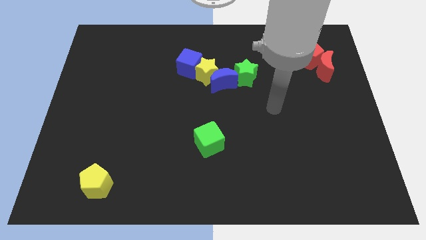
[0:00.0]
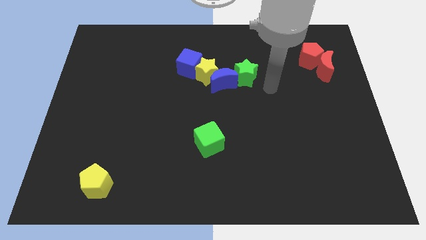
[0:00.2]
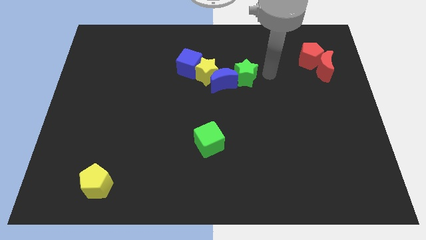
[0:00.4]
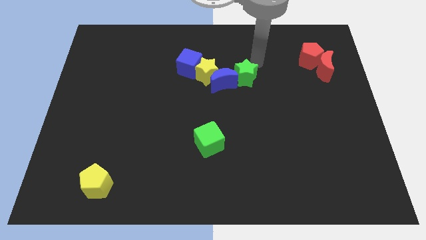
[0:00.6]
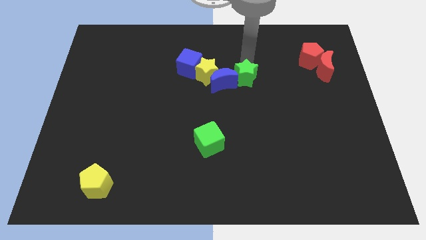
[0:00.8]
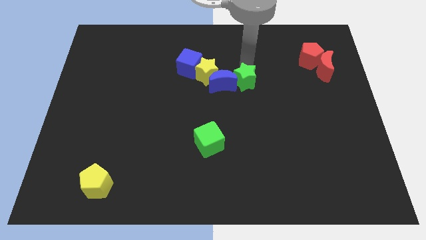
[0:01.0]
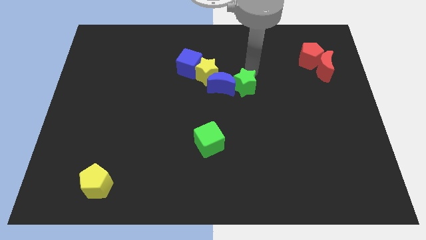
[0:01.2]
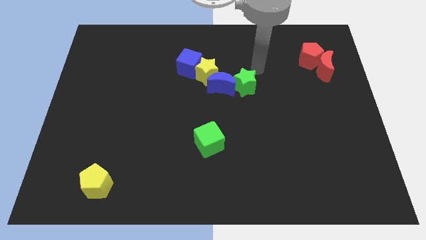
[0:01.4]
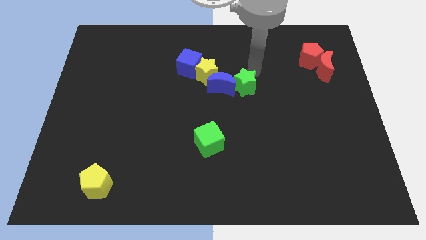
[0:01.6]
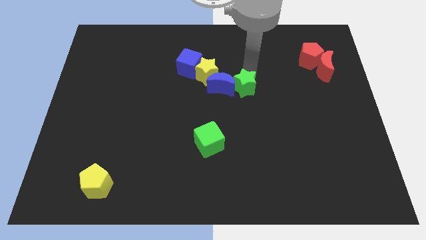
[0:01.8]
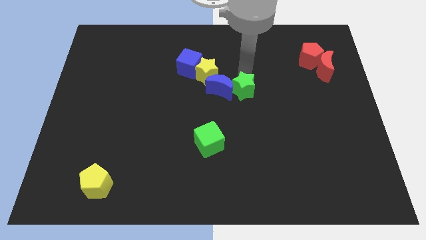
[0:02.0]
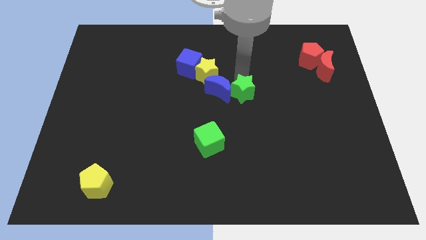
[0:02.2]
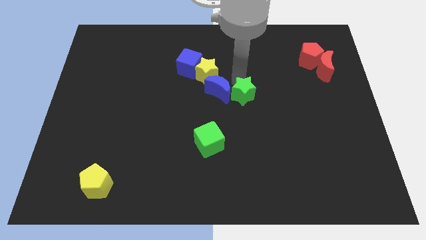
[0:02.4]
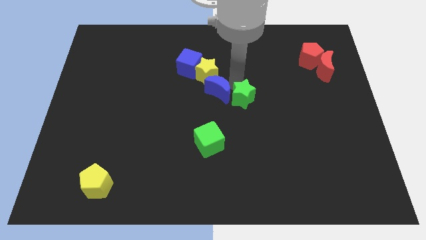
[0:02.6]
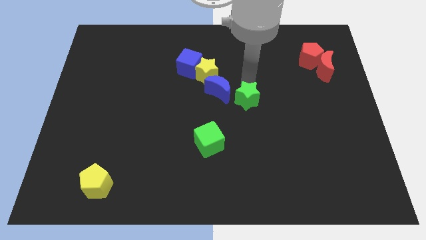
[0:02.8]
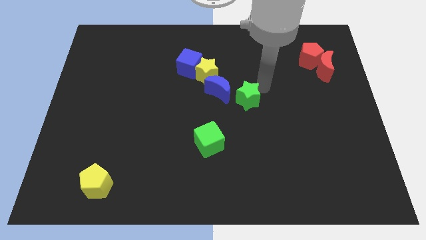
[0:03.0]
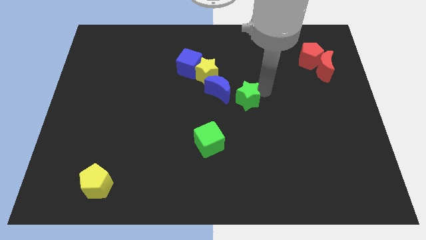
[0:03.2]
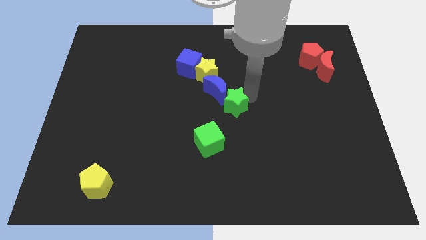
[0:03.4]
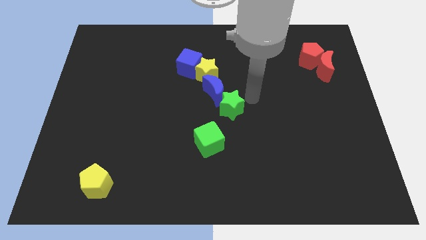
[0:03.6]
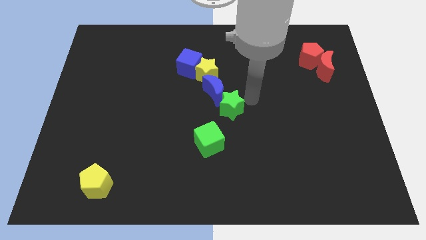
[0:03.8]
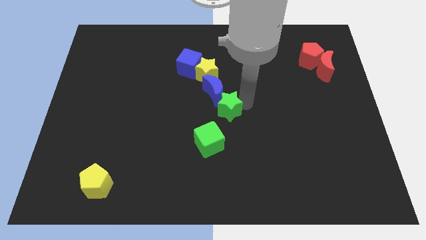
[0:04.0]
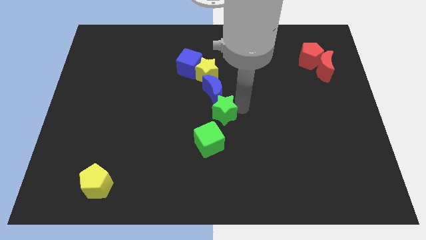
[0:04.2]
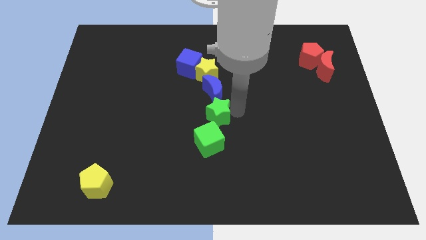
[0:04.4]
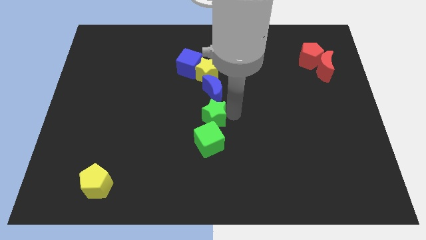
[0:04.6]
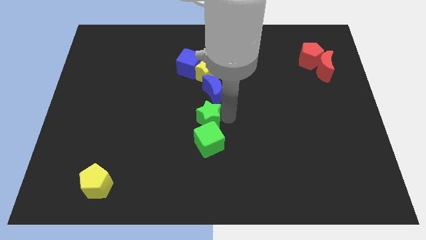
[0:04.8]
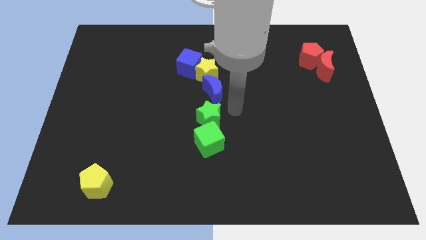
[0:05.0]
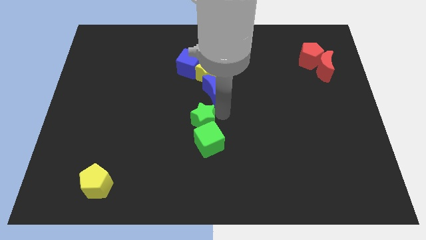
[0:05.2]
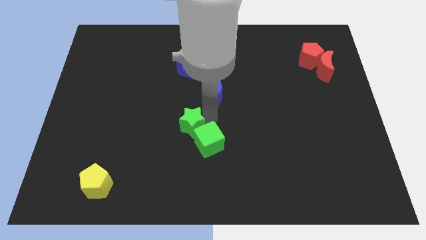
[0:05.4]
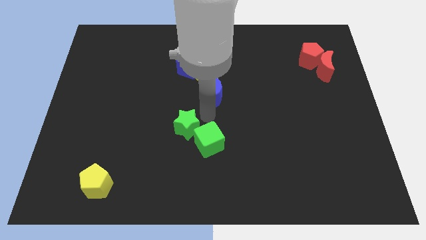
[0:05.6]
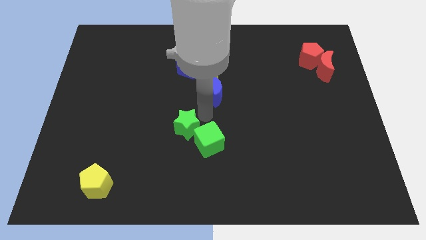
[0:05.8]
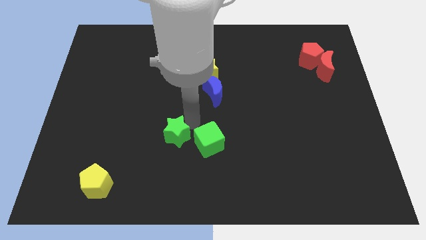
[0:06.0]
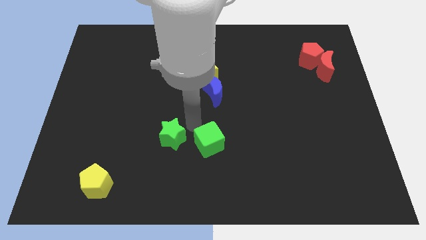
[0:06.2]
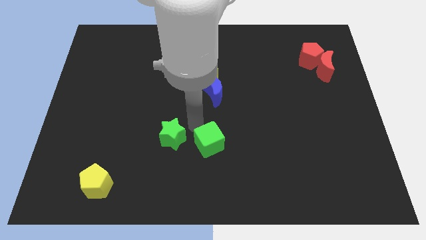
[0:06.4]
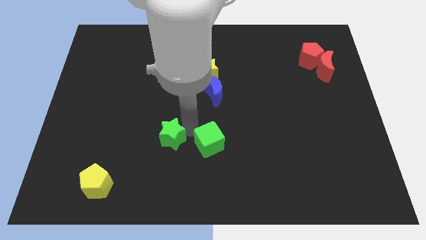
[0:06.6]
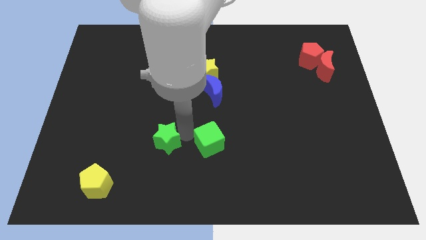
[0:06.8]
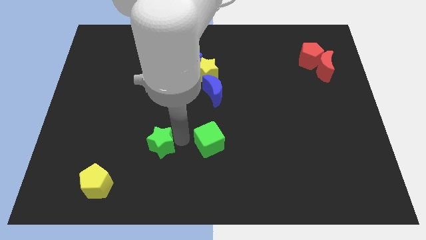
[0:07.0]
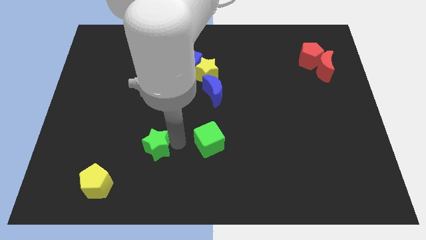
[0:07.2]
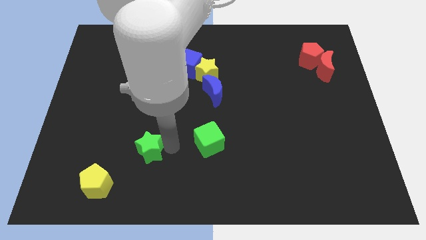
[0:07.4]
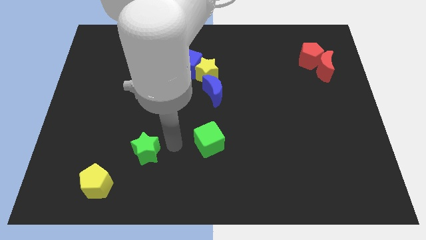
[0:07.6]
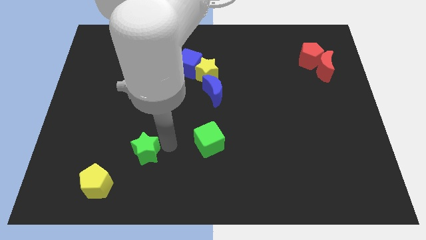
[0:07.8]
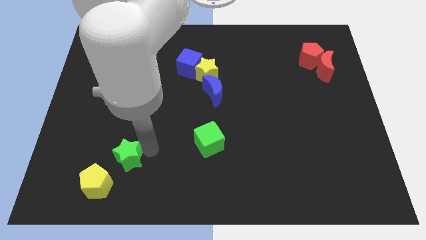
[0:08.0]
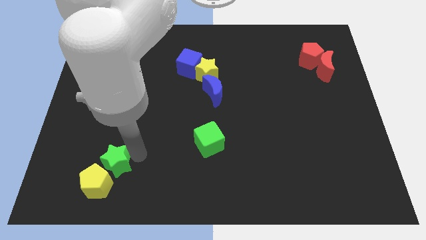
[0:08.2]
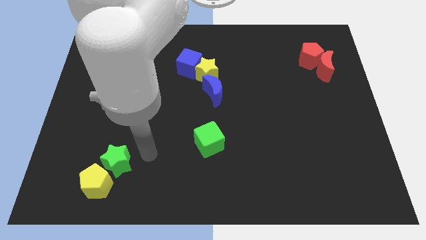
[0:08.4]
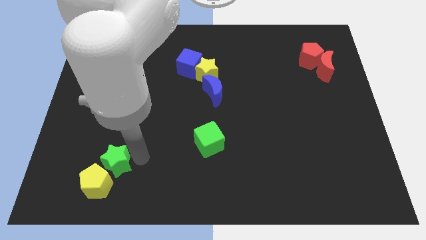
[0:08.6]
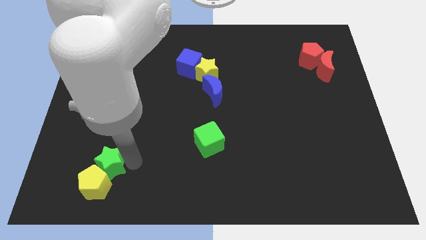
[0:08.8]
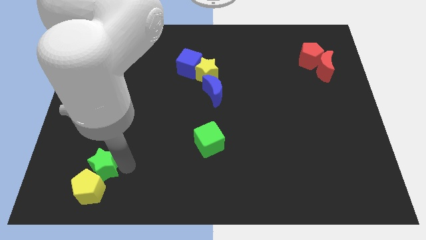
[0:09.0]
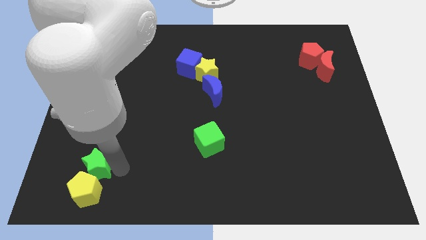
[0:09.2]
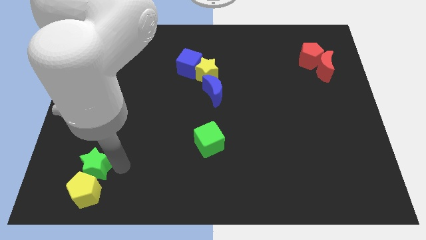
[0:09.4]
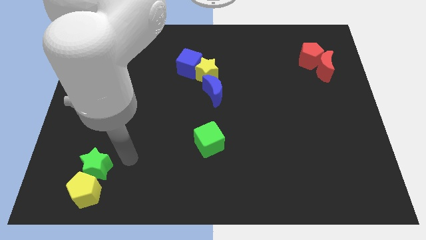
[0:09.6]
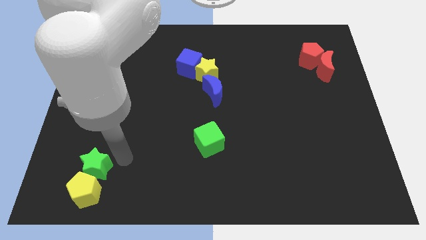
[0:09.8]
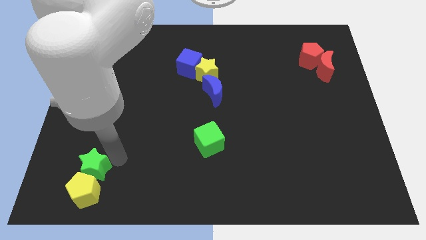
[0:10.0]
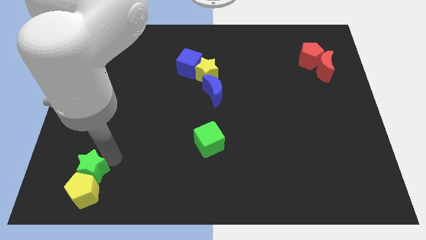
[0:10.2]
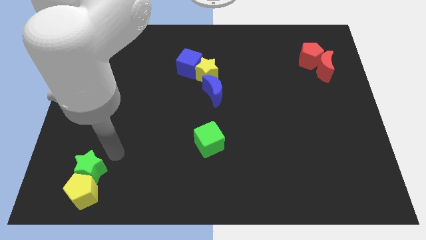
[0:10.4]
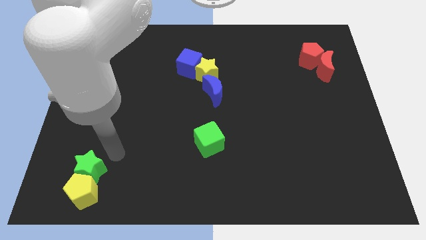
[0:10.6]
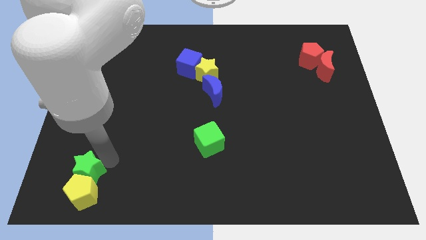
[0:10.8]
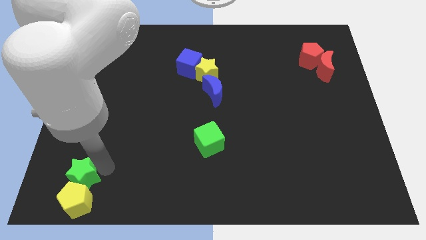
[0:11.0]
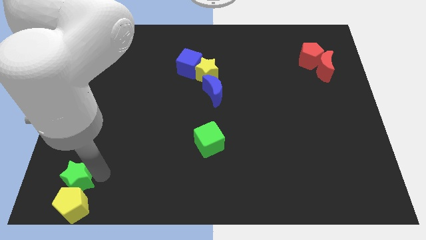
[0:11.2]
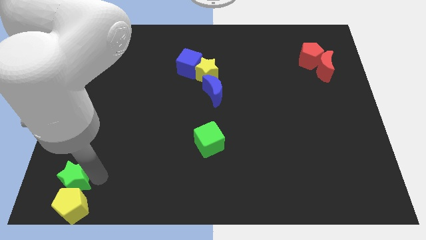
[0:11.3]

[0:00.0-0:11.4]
put the green star to the bottom left corner

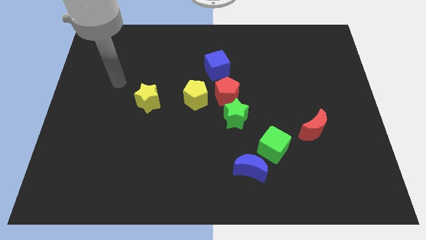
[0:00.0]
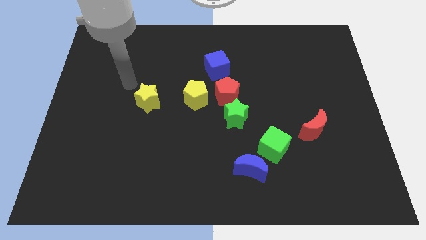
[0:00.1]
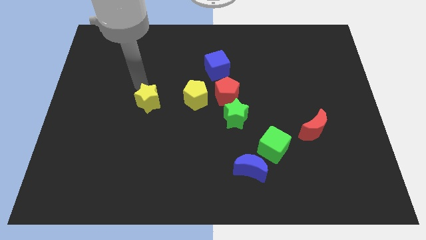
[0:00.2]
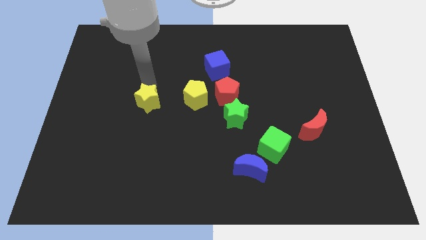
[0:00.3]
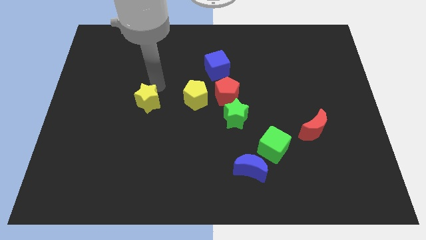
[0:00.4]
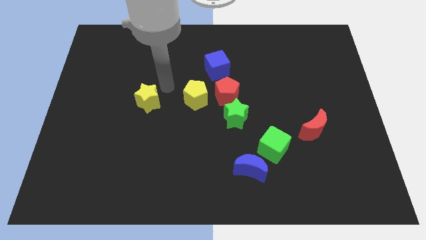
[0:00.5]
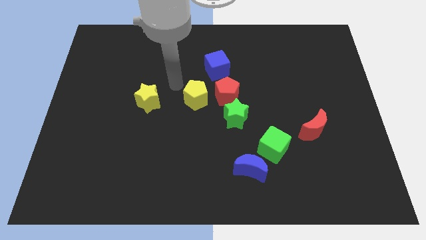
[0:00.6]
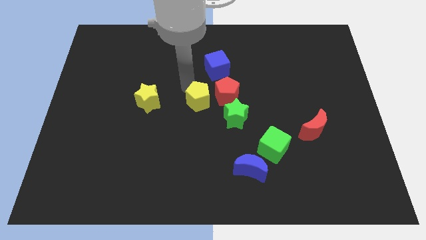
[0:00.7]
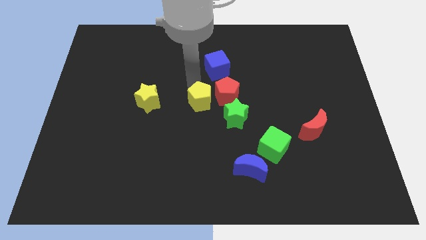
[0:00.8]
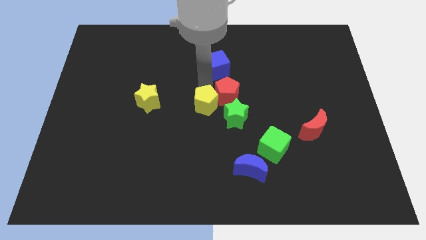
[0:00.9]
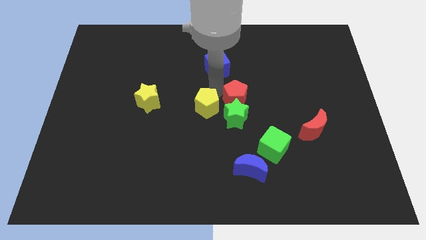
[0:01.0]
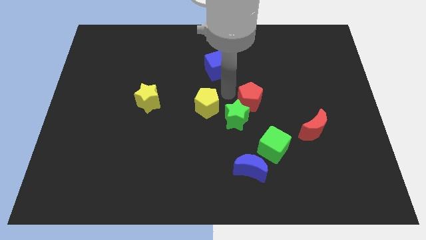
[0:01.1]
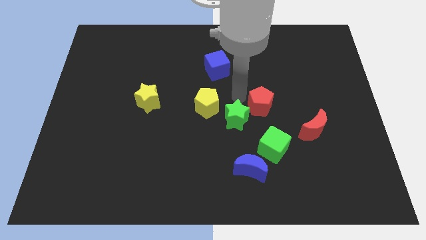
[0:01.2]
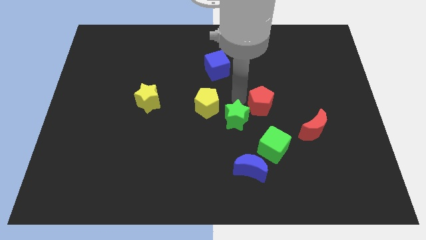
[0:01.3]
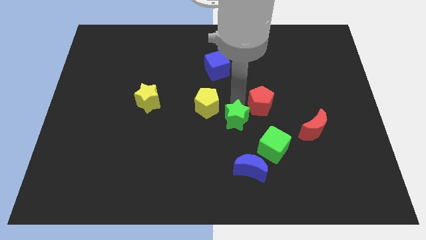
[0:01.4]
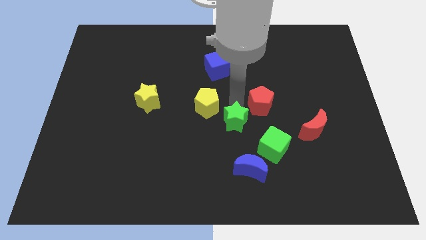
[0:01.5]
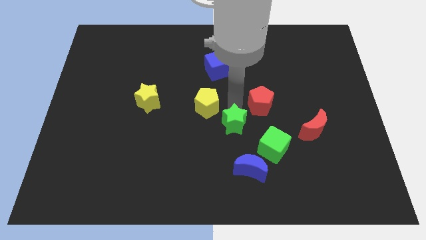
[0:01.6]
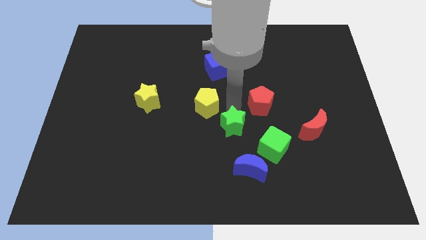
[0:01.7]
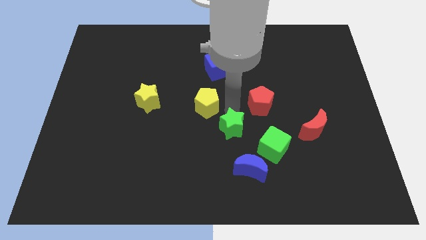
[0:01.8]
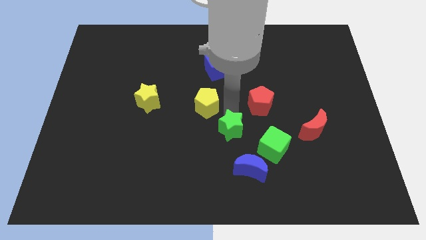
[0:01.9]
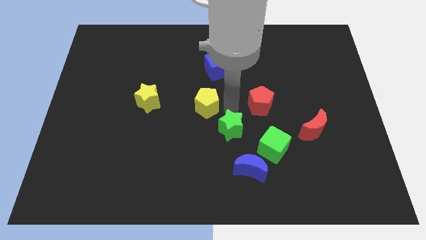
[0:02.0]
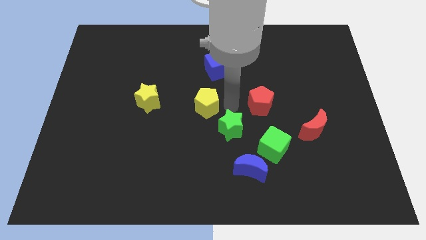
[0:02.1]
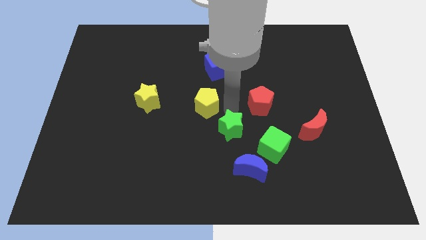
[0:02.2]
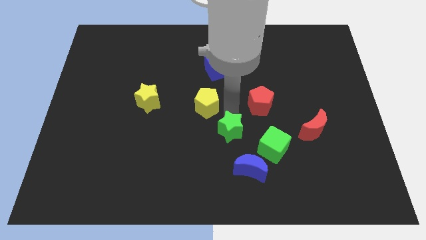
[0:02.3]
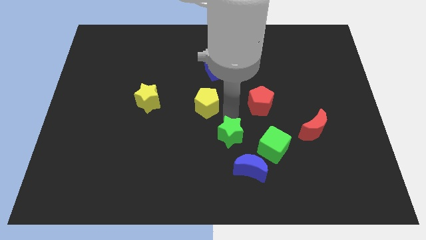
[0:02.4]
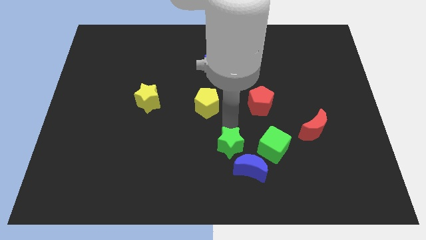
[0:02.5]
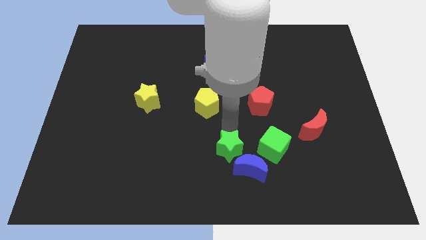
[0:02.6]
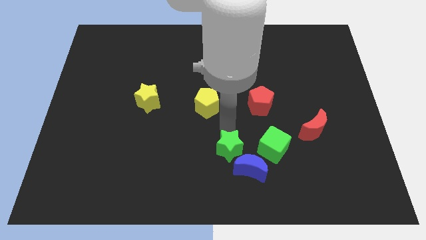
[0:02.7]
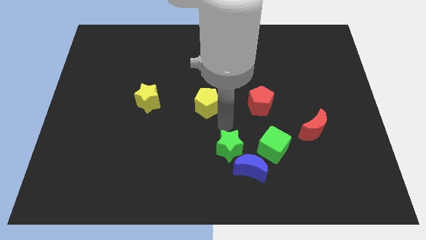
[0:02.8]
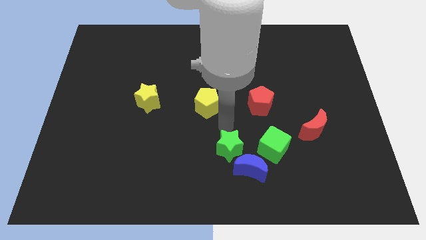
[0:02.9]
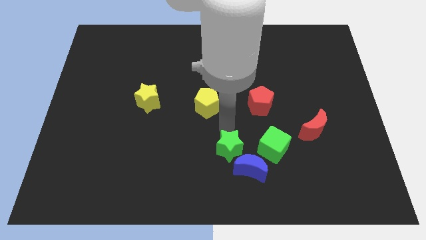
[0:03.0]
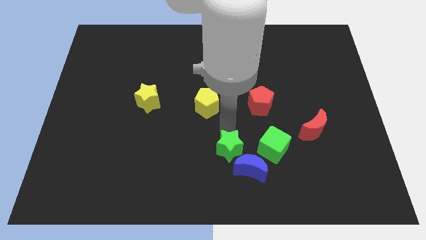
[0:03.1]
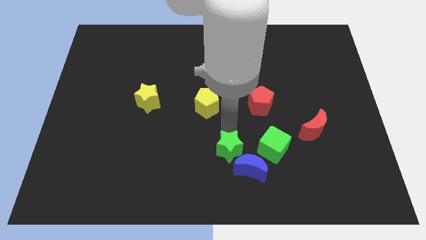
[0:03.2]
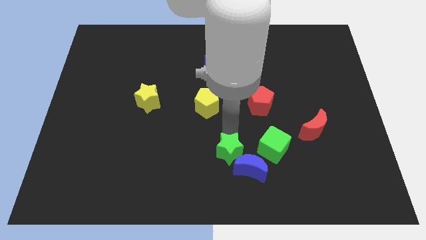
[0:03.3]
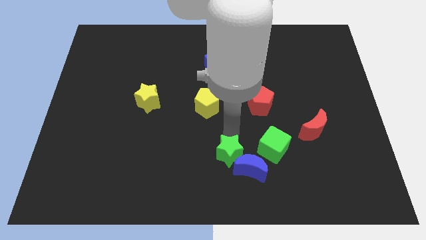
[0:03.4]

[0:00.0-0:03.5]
put the green star to the bottom
